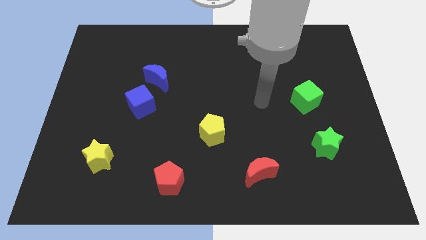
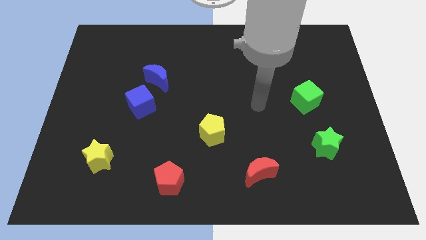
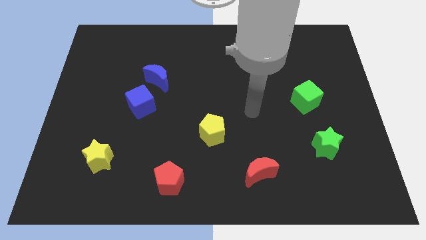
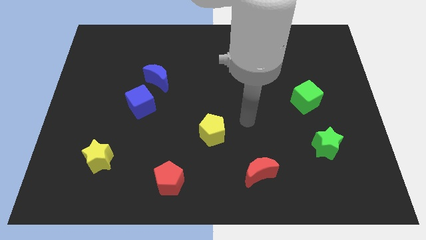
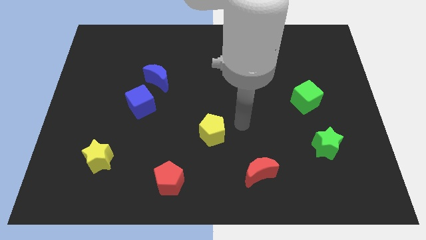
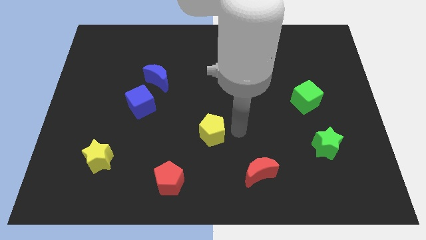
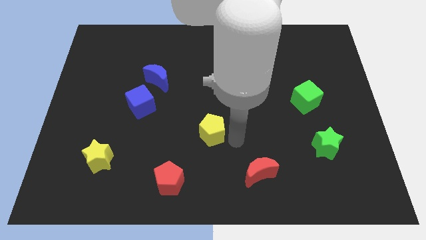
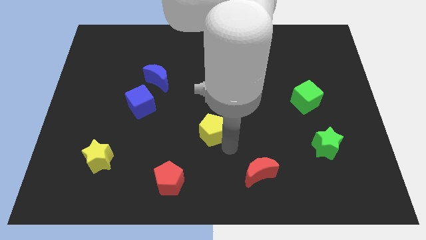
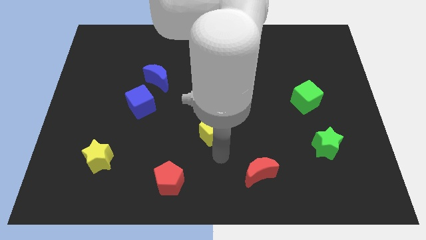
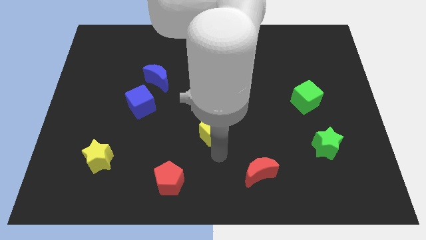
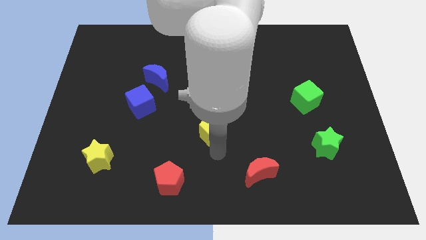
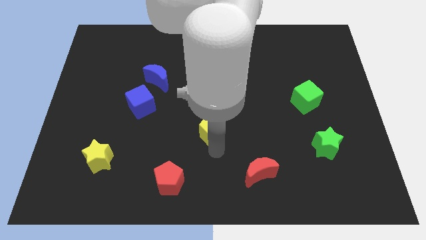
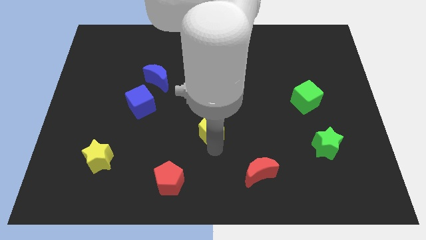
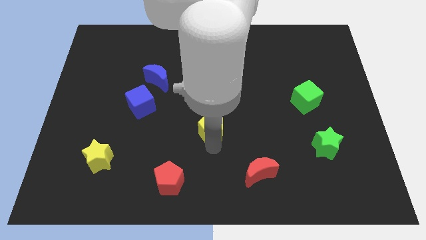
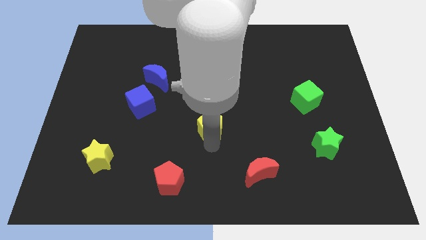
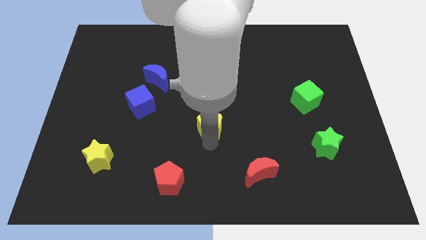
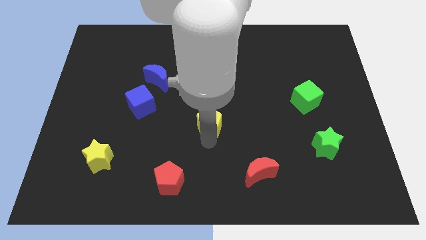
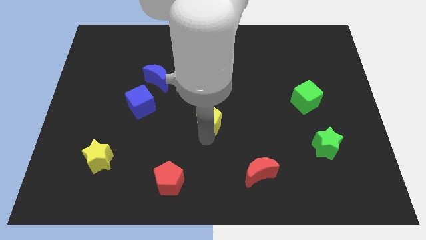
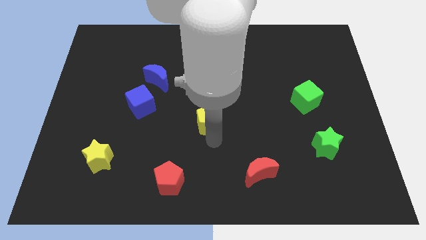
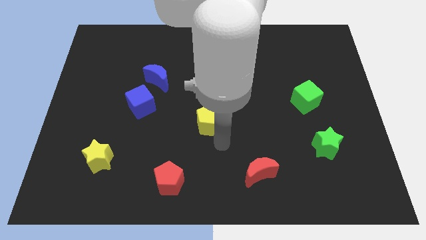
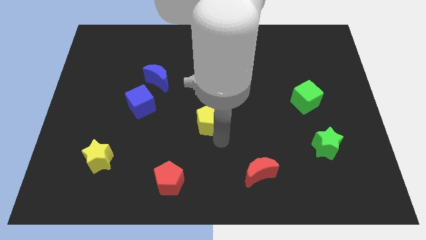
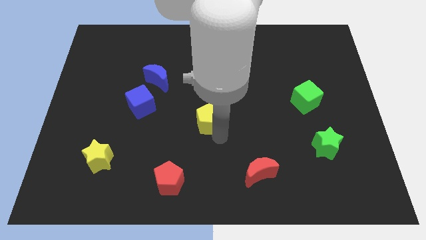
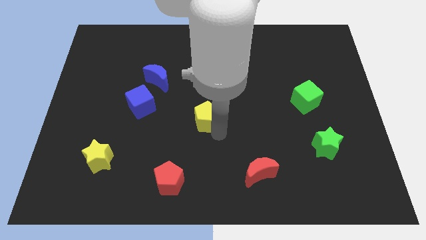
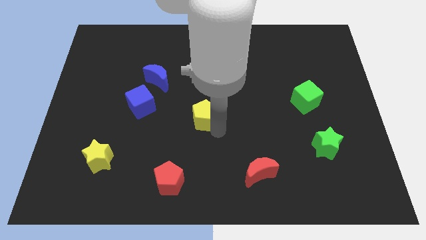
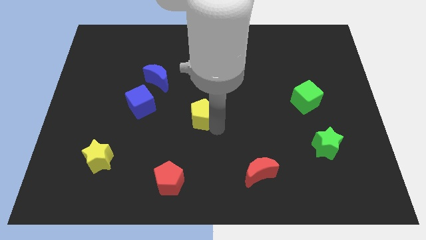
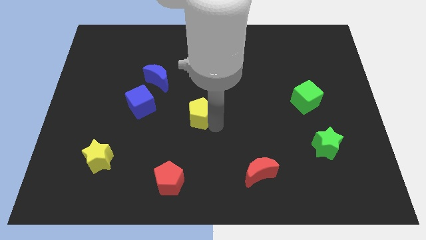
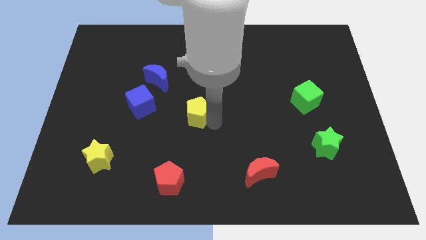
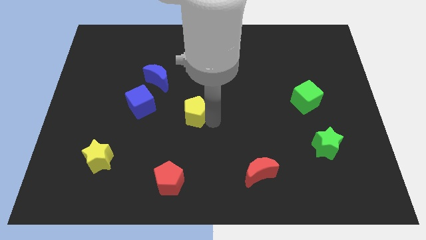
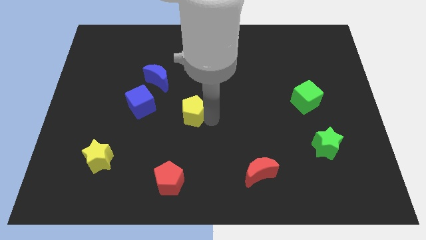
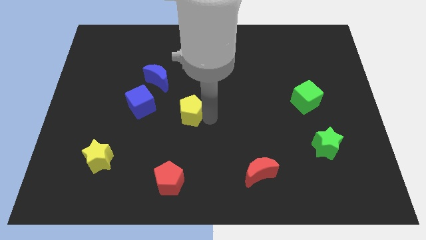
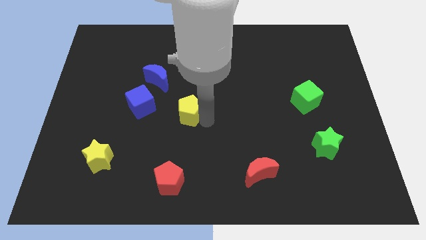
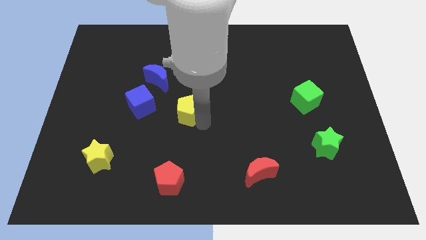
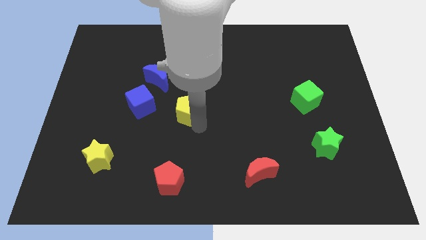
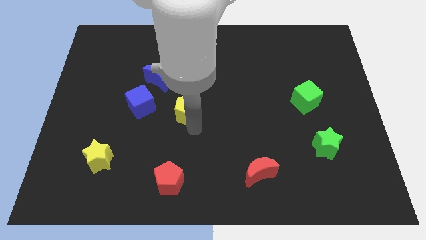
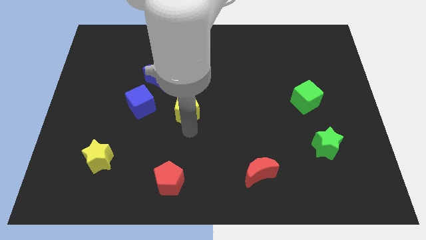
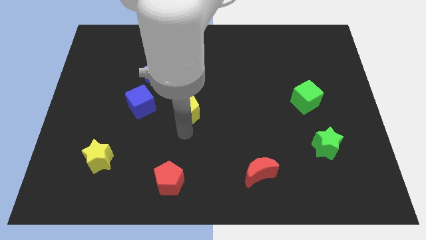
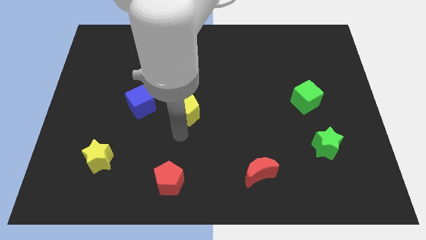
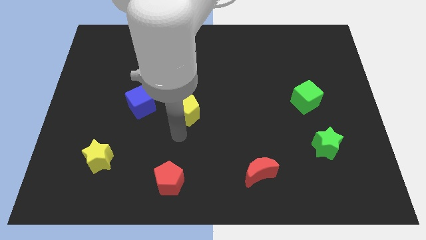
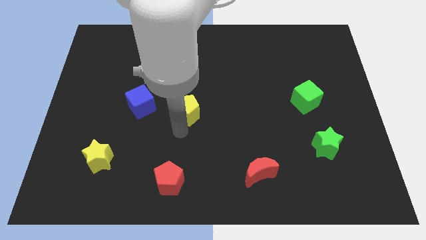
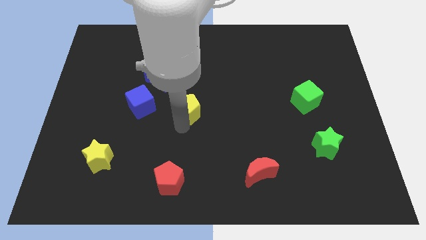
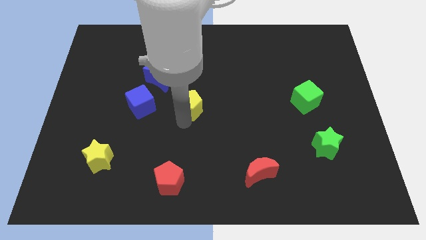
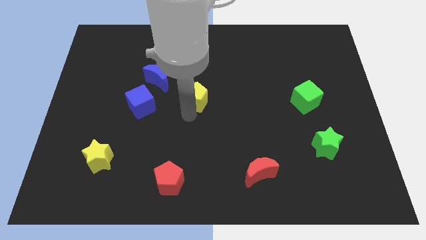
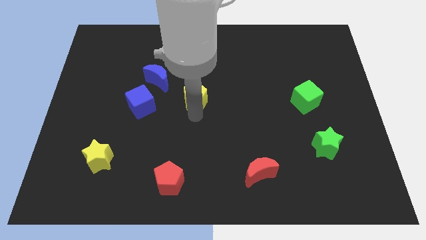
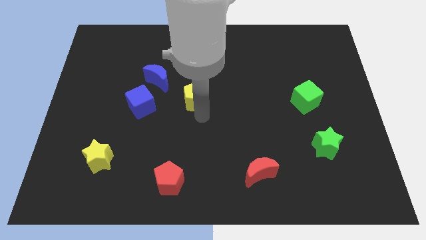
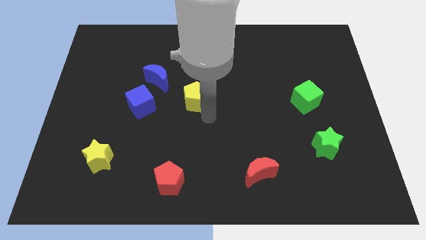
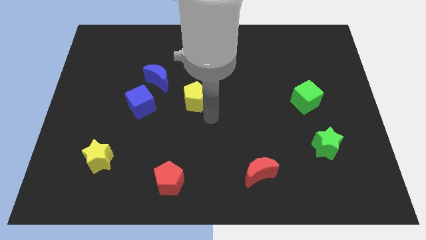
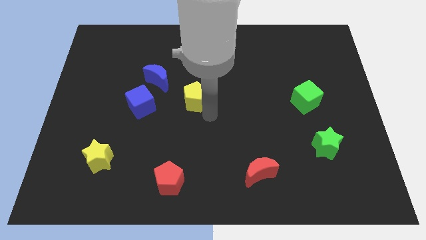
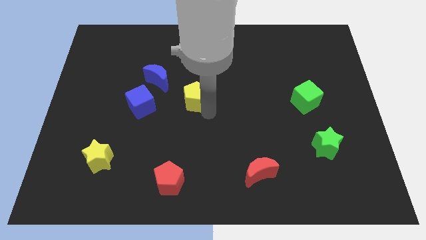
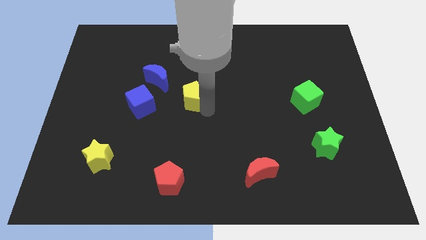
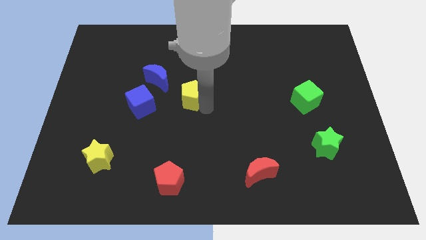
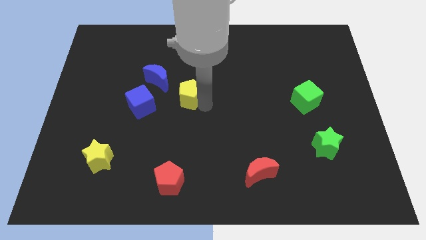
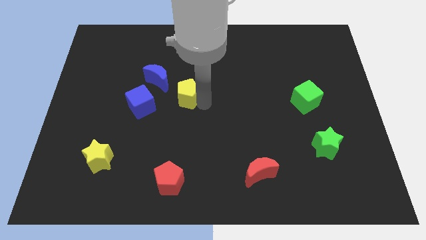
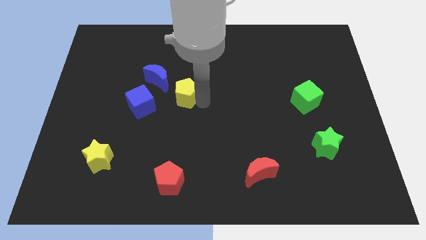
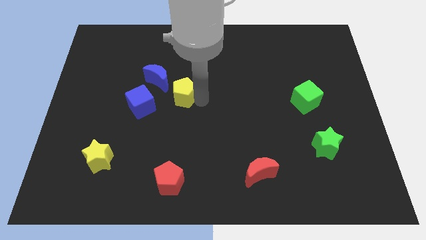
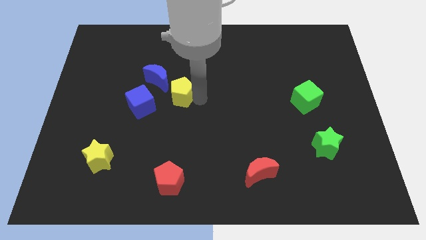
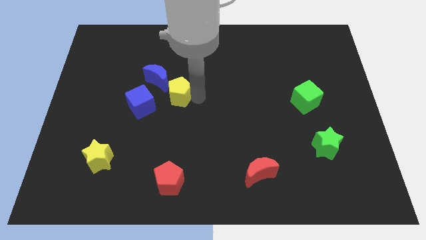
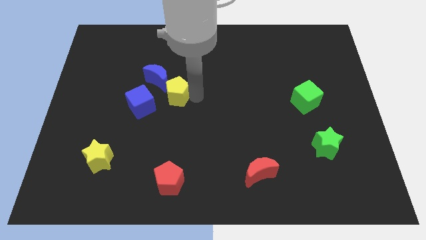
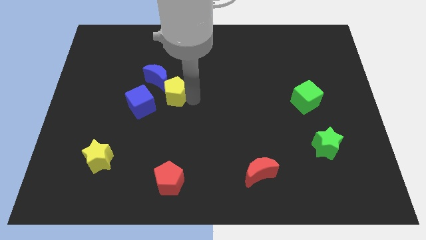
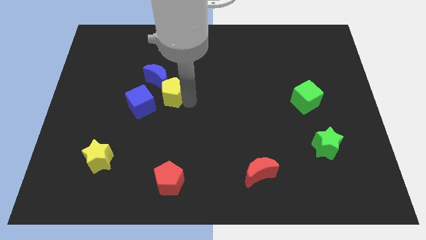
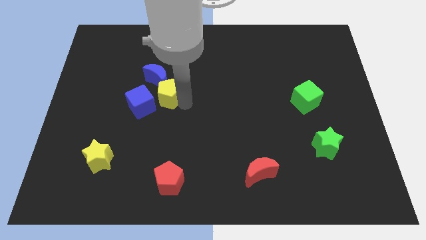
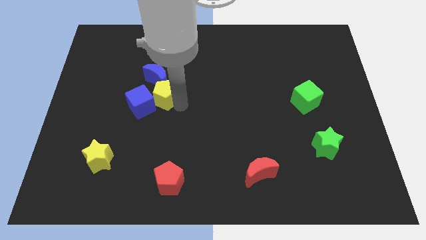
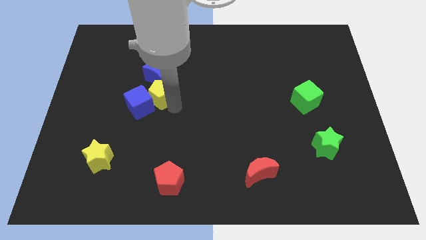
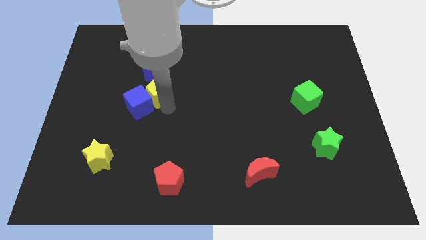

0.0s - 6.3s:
move the yellow pentagon to the top of the blue cube

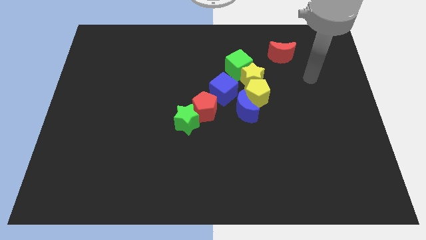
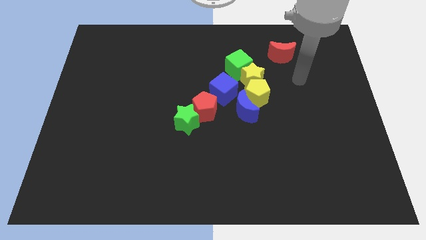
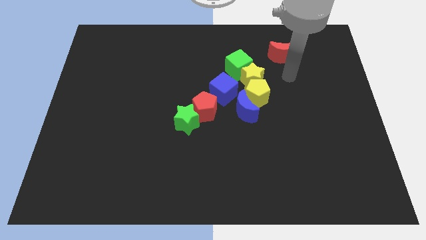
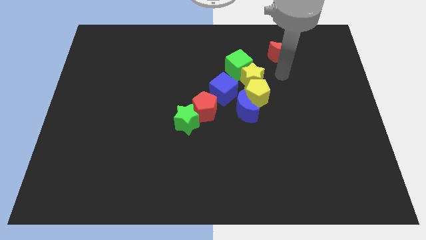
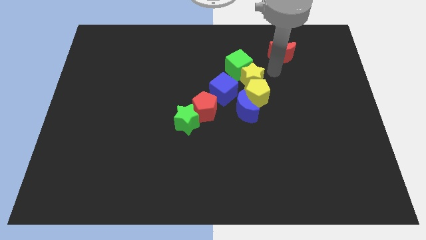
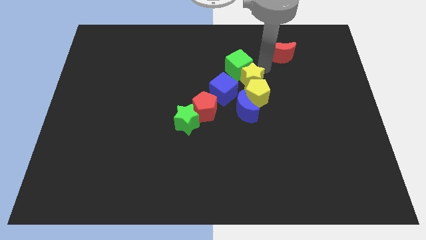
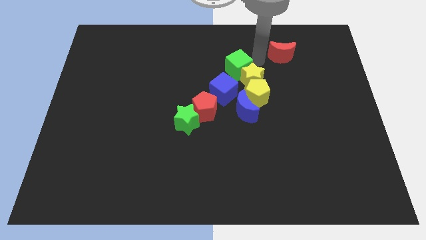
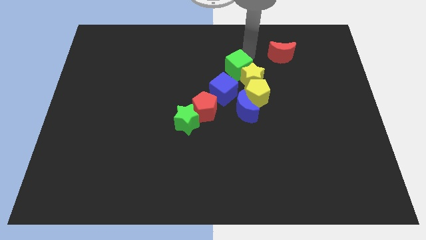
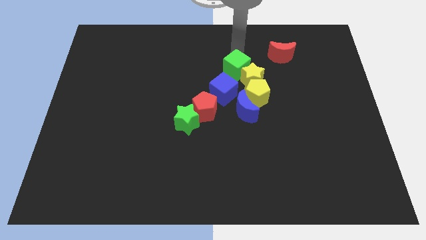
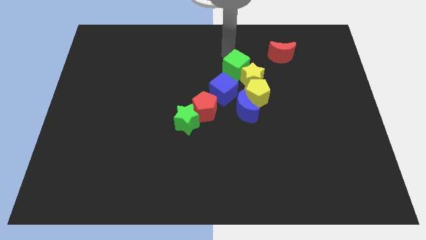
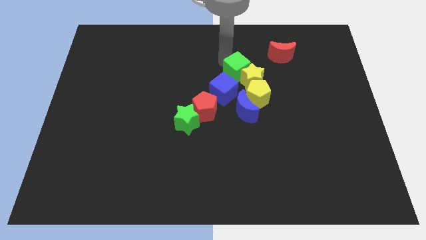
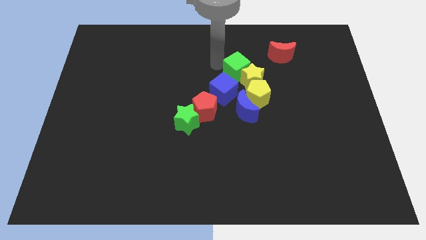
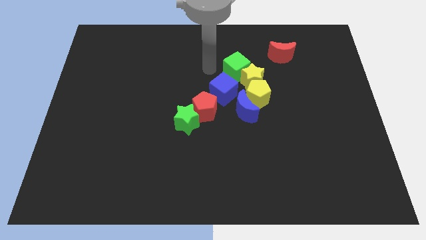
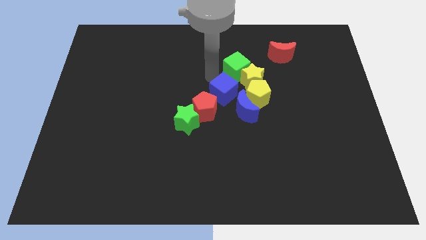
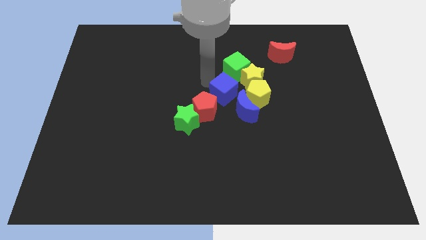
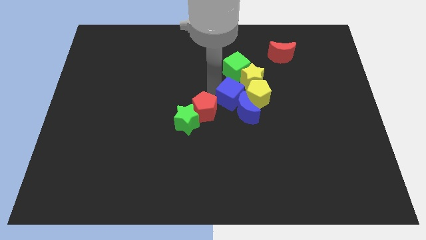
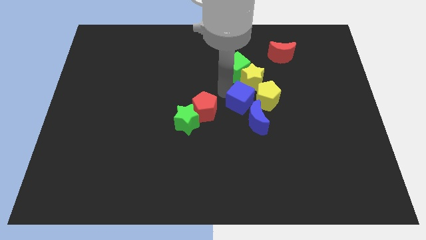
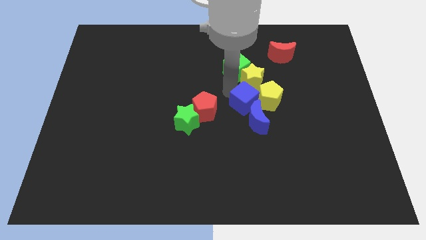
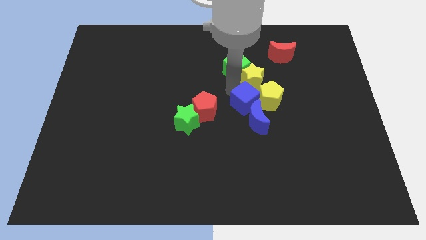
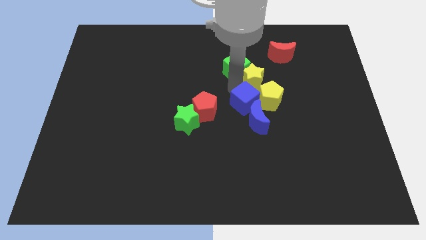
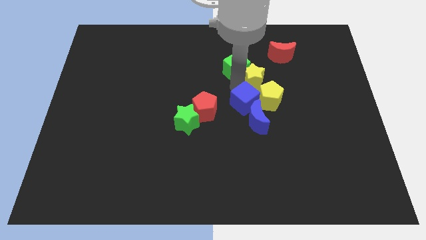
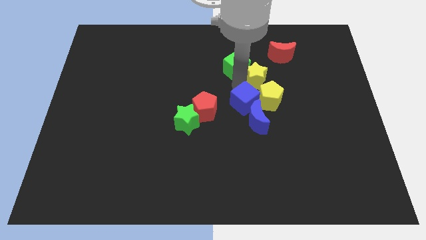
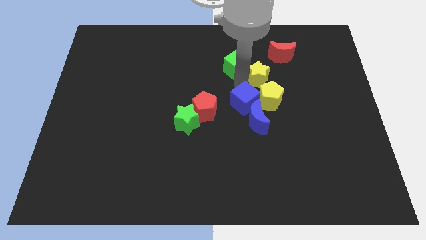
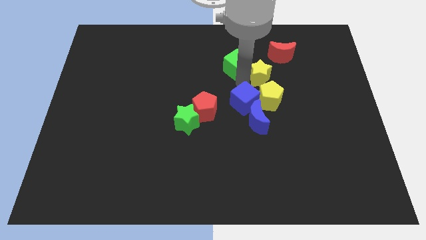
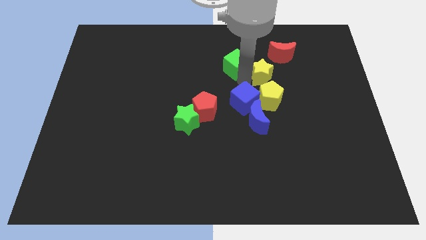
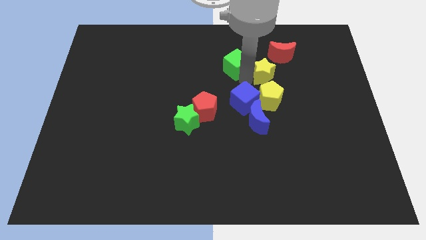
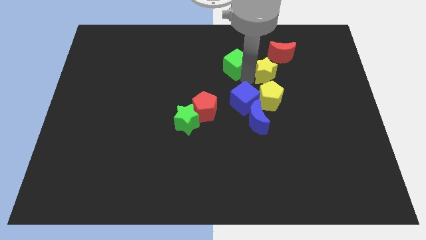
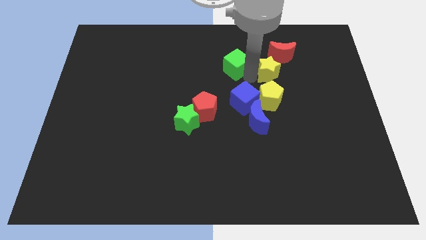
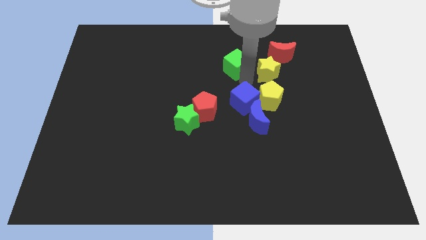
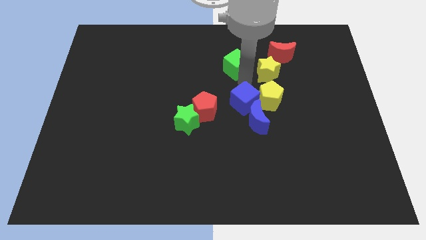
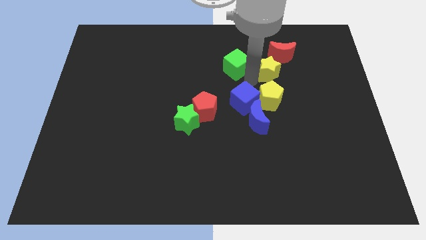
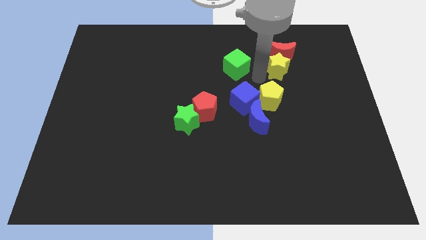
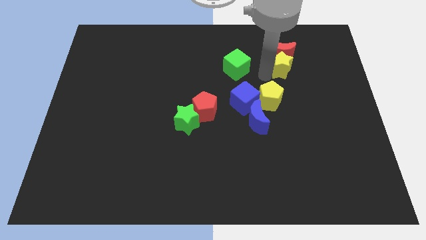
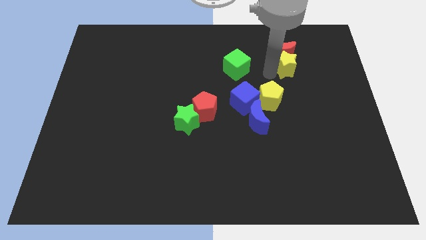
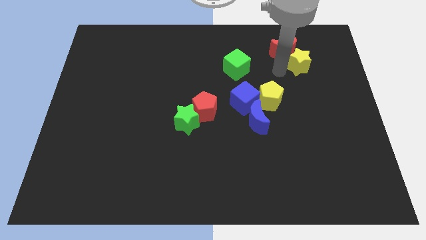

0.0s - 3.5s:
slide the yellow star just right of the red moon
